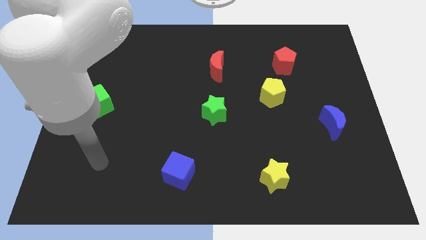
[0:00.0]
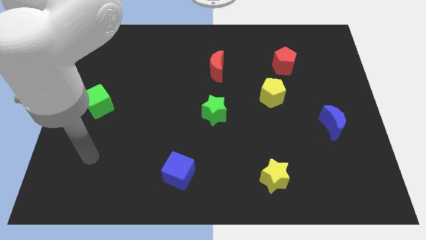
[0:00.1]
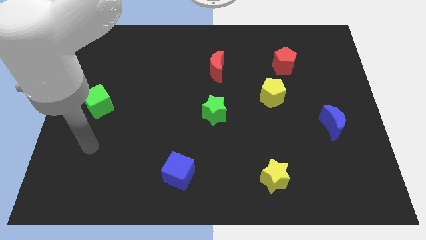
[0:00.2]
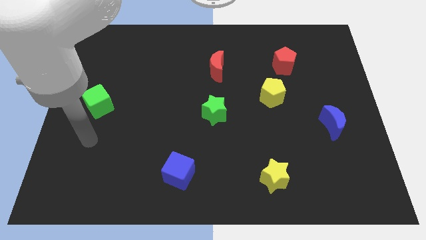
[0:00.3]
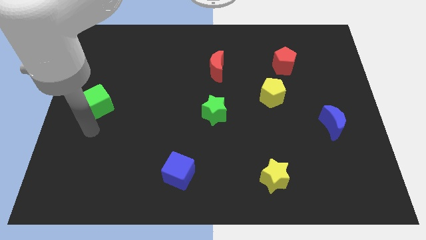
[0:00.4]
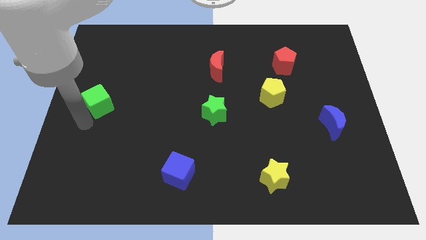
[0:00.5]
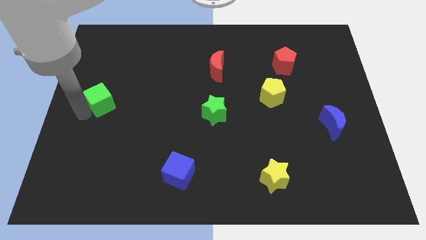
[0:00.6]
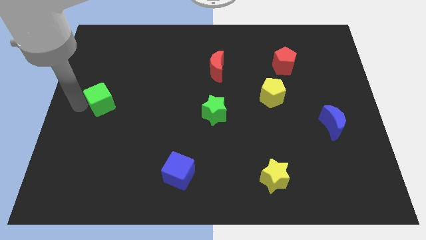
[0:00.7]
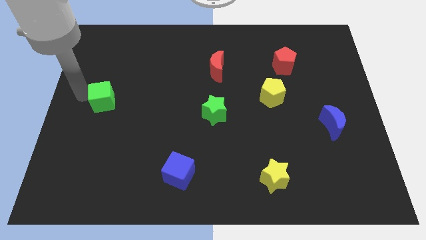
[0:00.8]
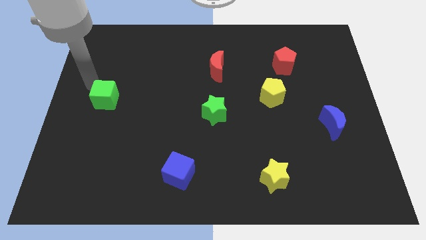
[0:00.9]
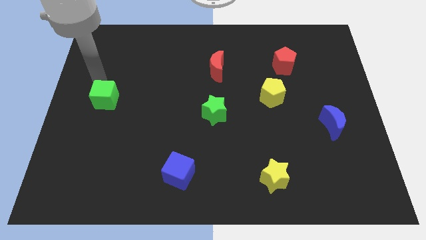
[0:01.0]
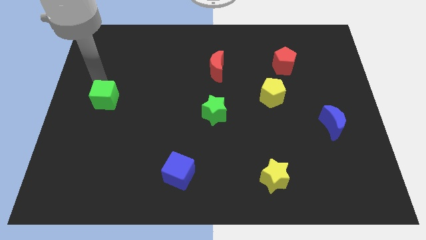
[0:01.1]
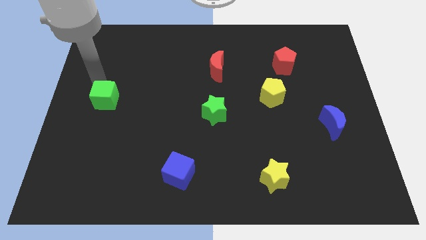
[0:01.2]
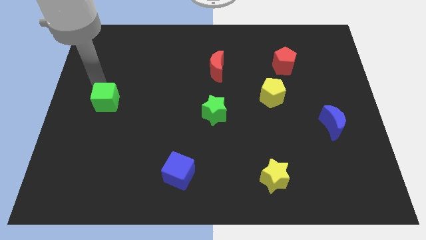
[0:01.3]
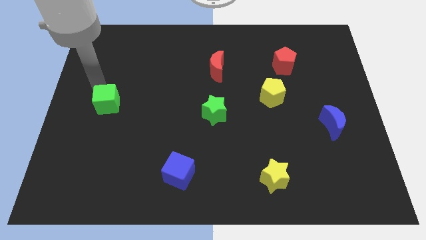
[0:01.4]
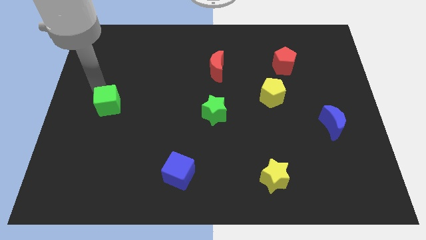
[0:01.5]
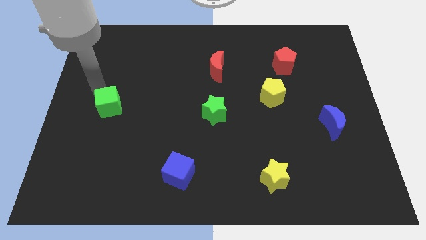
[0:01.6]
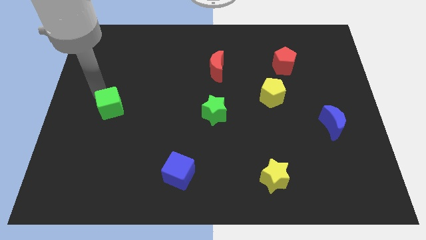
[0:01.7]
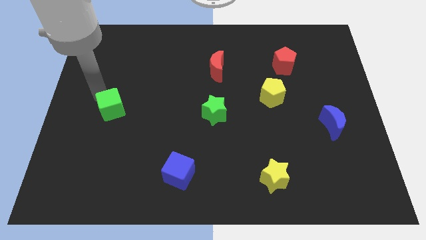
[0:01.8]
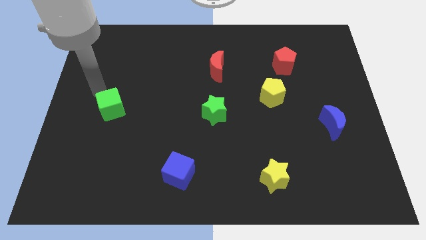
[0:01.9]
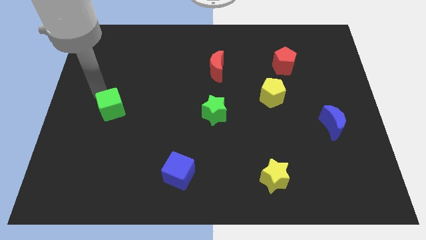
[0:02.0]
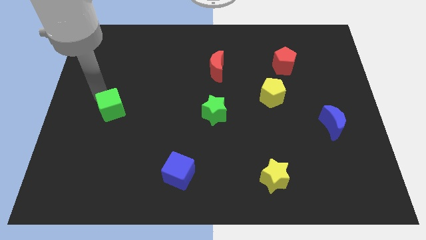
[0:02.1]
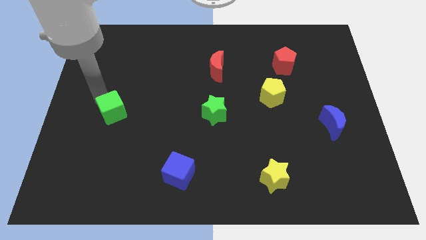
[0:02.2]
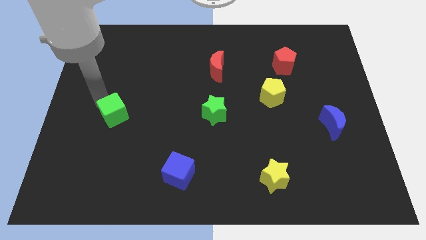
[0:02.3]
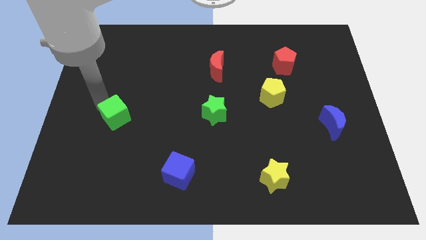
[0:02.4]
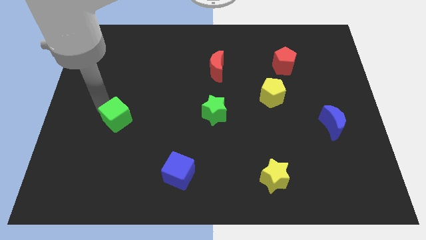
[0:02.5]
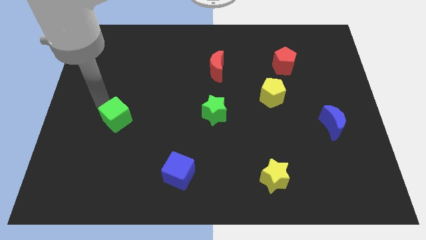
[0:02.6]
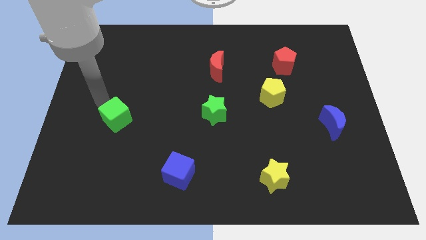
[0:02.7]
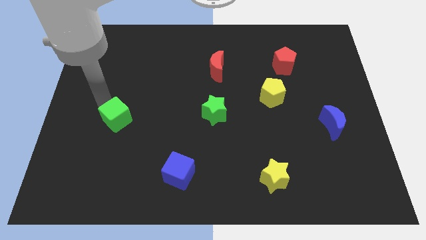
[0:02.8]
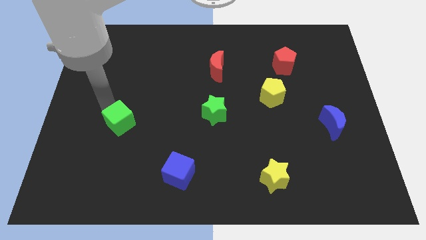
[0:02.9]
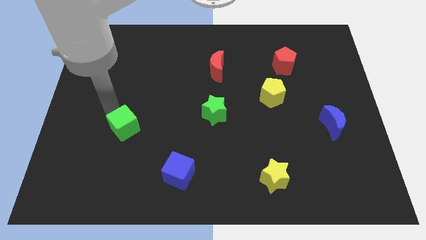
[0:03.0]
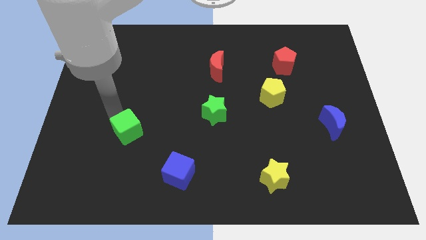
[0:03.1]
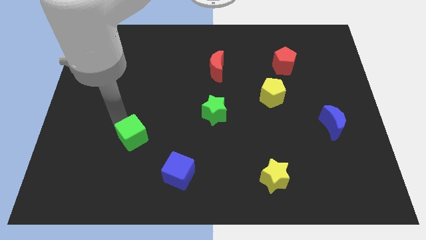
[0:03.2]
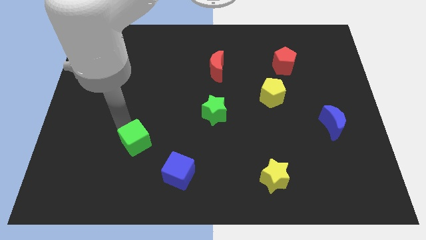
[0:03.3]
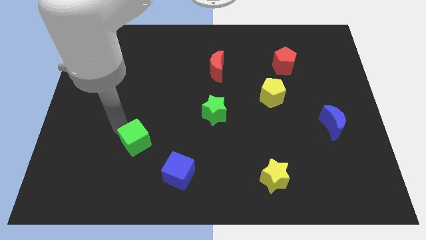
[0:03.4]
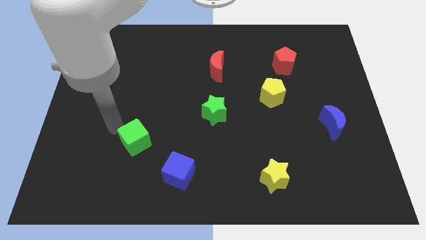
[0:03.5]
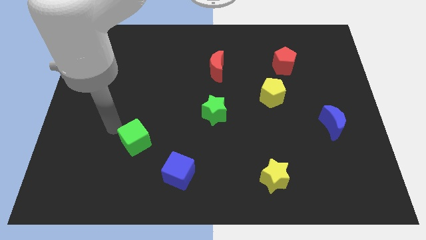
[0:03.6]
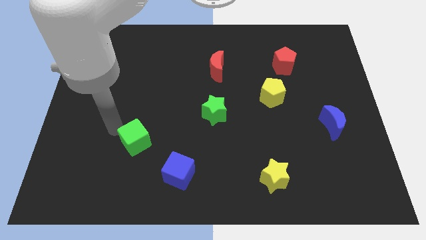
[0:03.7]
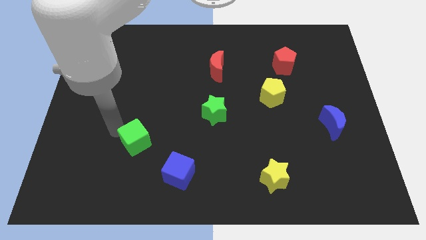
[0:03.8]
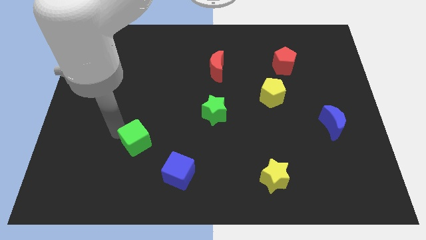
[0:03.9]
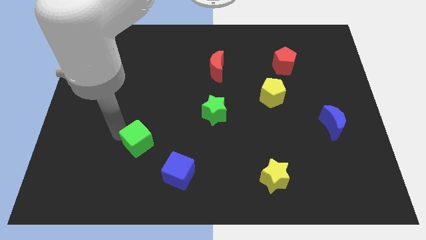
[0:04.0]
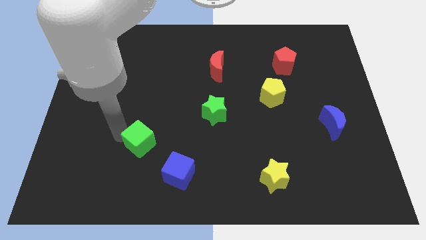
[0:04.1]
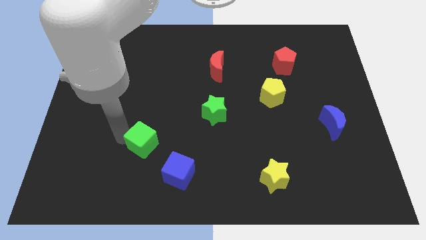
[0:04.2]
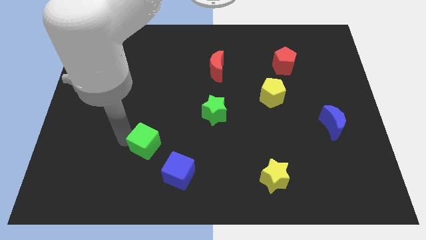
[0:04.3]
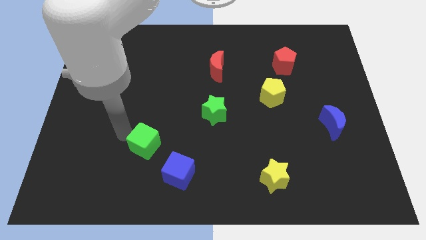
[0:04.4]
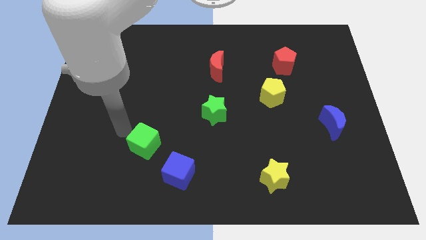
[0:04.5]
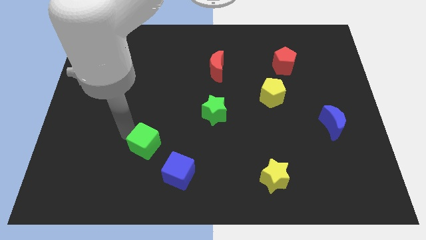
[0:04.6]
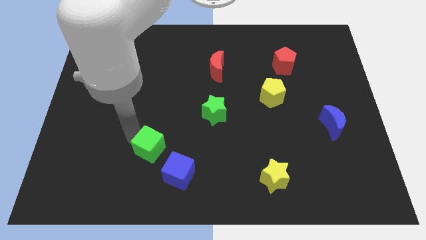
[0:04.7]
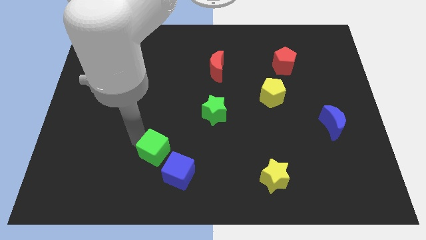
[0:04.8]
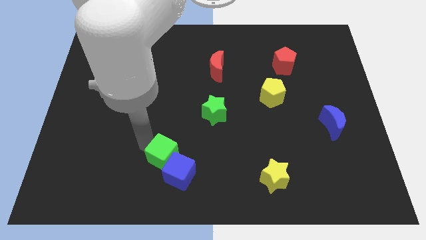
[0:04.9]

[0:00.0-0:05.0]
move the green cube close to the blue cube

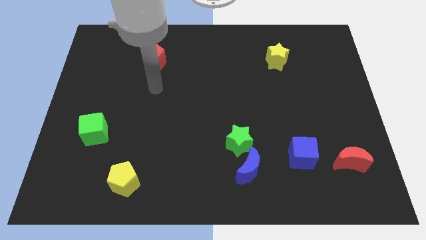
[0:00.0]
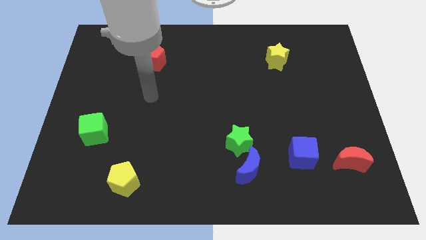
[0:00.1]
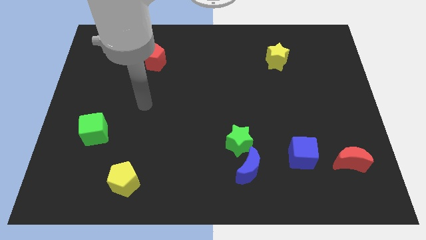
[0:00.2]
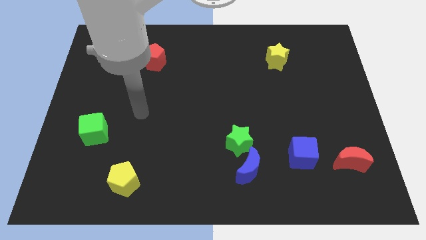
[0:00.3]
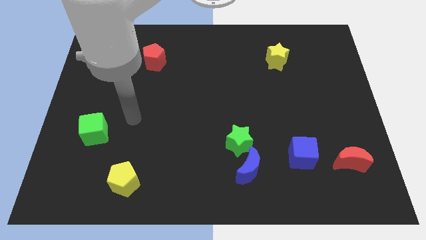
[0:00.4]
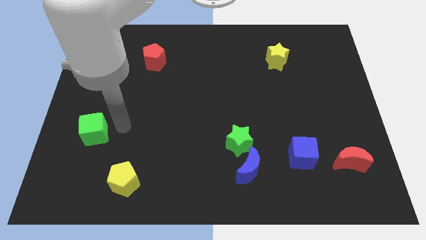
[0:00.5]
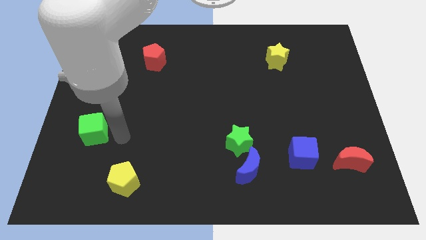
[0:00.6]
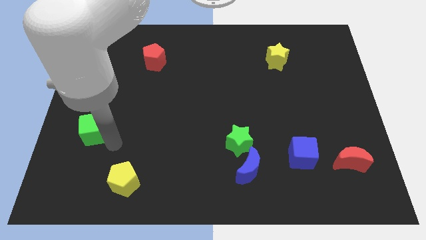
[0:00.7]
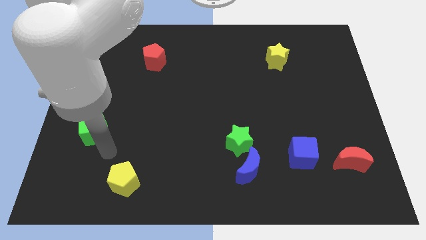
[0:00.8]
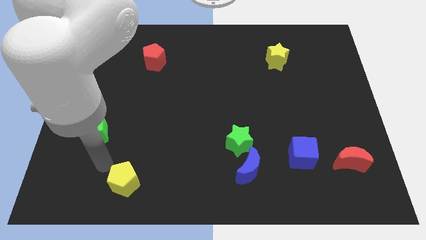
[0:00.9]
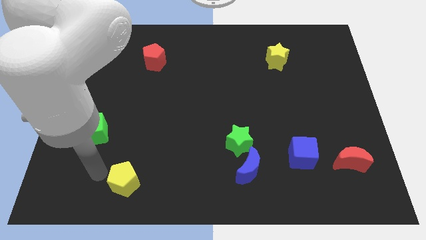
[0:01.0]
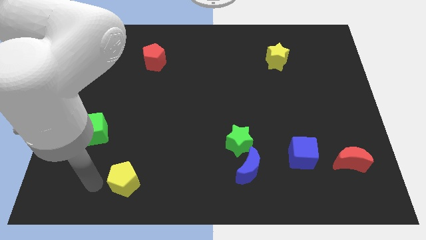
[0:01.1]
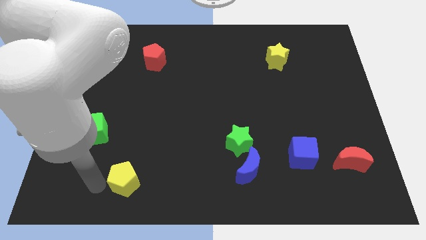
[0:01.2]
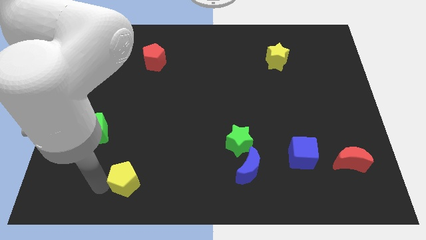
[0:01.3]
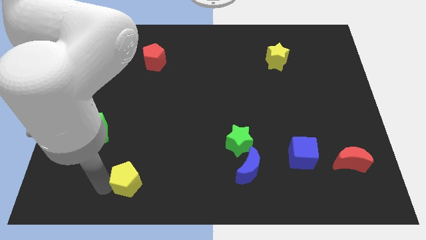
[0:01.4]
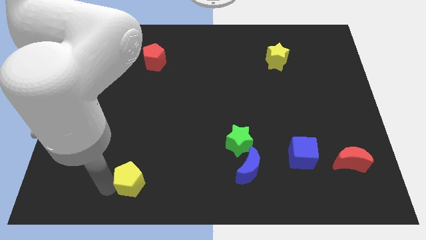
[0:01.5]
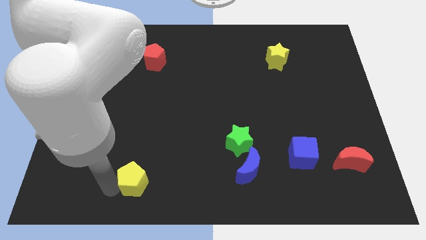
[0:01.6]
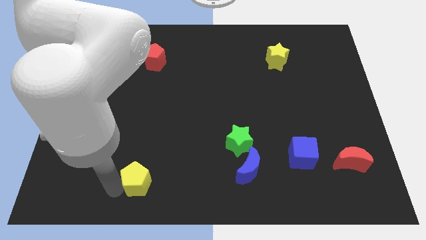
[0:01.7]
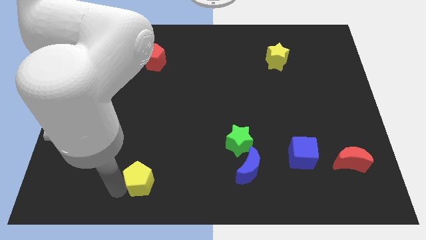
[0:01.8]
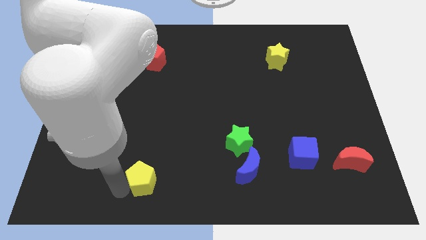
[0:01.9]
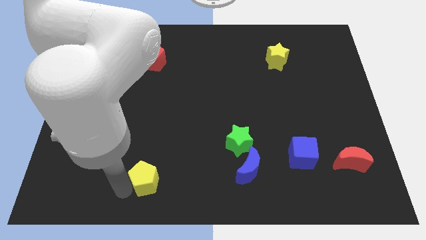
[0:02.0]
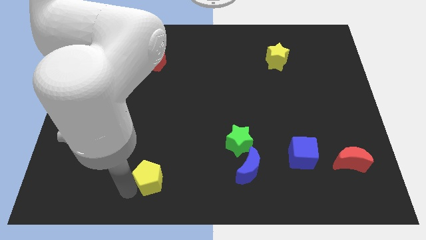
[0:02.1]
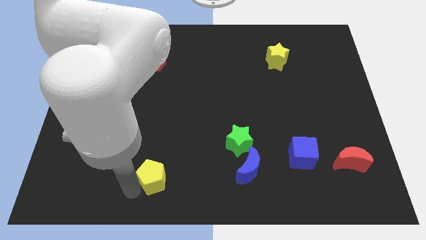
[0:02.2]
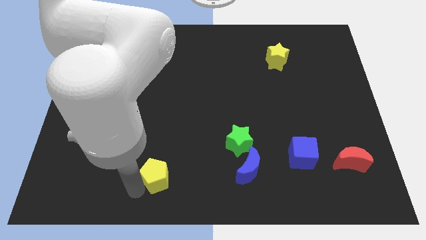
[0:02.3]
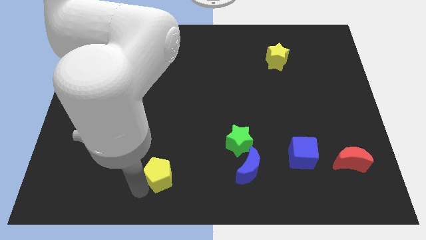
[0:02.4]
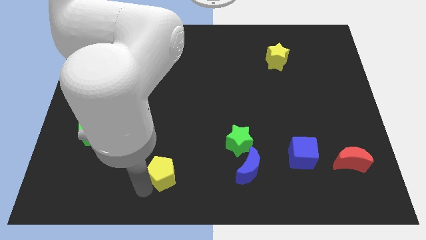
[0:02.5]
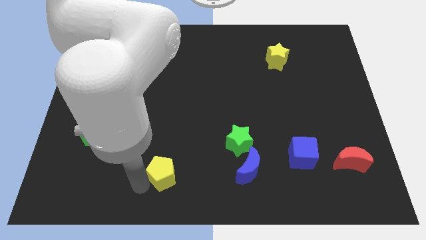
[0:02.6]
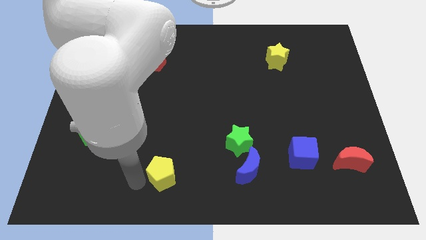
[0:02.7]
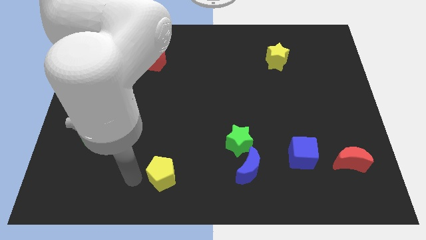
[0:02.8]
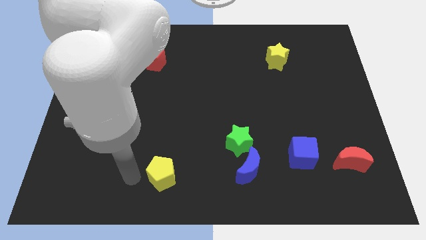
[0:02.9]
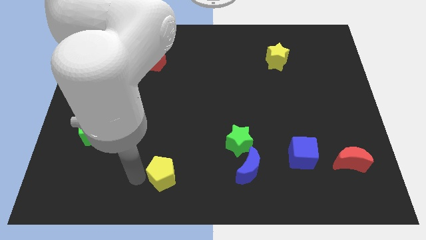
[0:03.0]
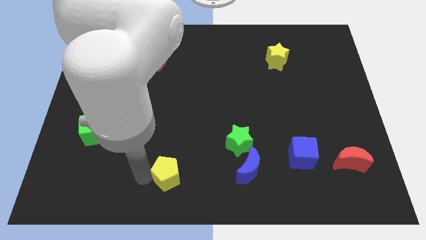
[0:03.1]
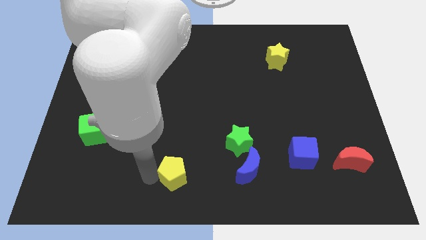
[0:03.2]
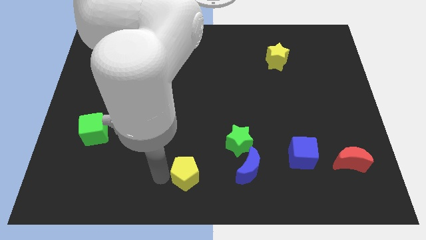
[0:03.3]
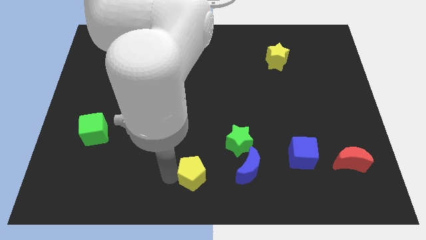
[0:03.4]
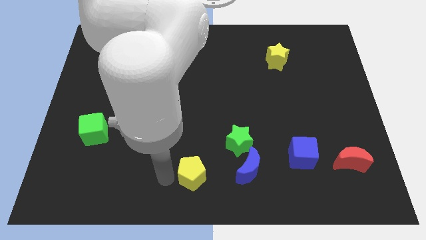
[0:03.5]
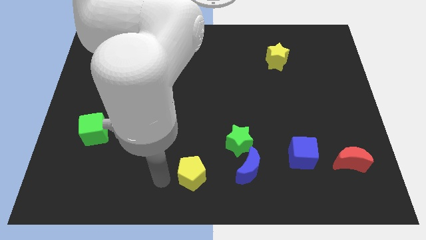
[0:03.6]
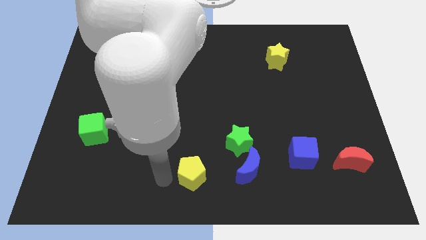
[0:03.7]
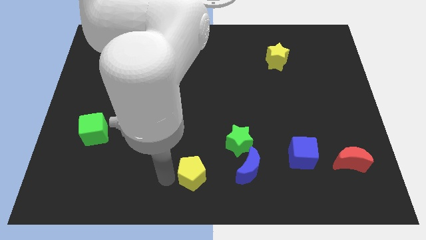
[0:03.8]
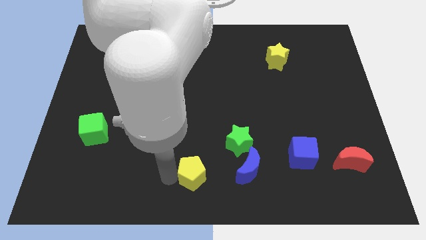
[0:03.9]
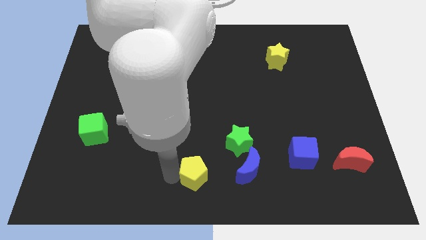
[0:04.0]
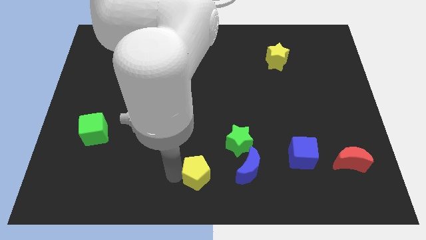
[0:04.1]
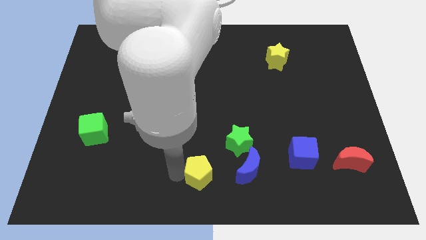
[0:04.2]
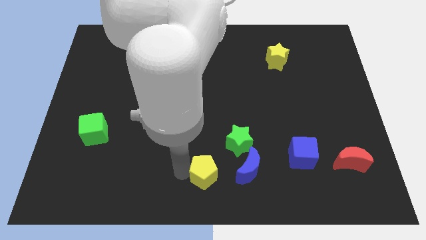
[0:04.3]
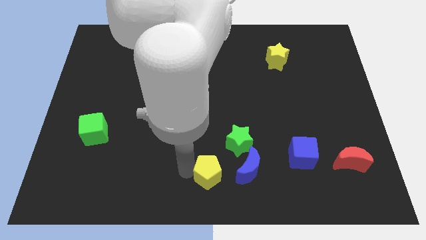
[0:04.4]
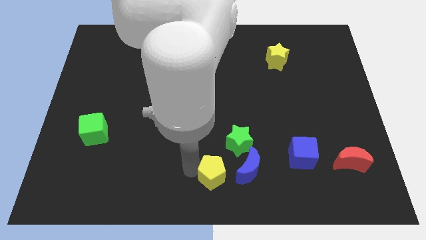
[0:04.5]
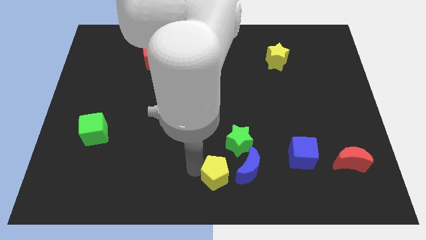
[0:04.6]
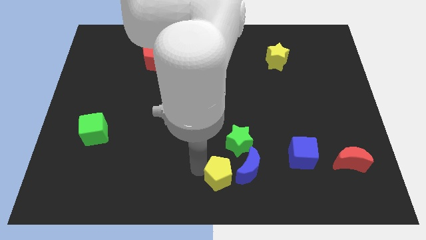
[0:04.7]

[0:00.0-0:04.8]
move the yellow pentagon next to the blue moon
